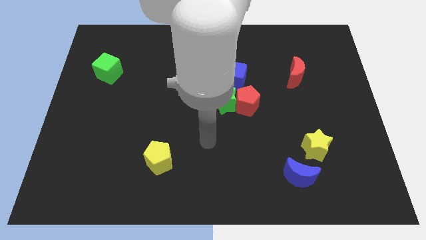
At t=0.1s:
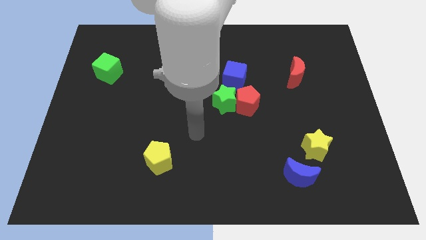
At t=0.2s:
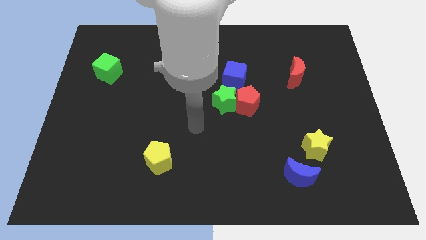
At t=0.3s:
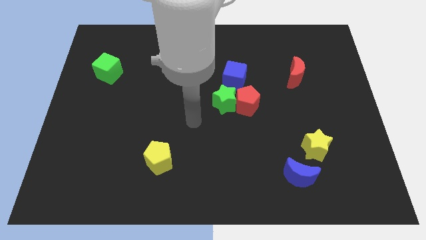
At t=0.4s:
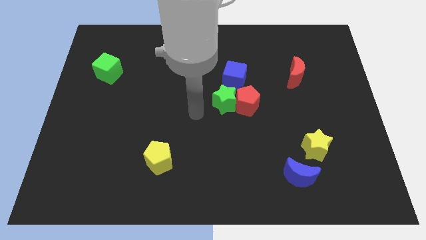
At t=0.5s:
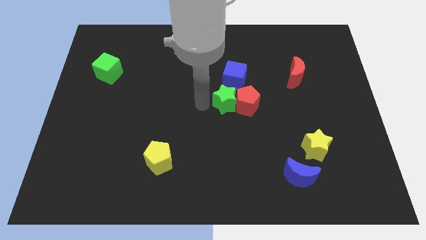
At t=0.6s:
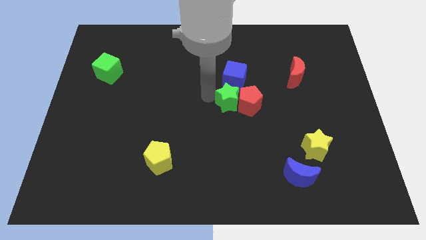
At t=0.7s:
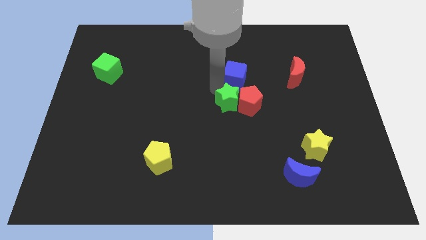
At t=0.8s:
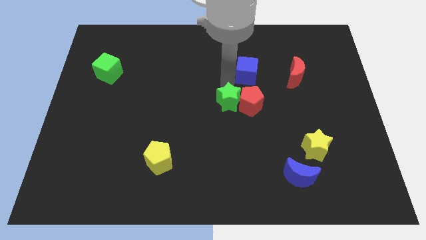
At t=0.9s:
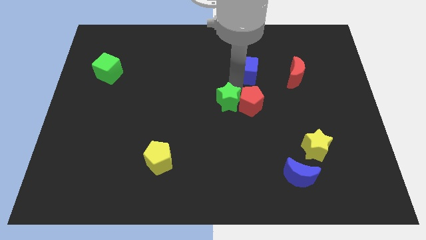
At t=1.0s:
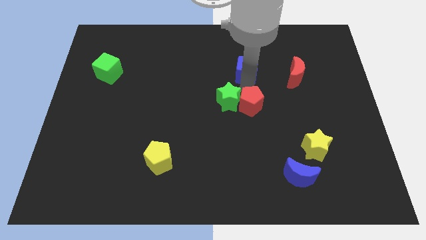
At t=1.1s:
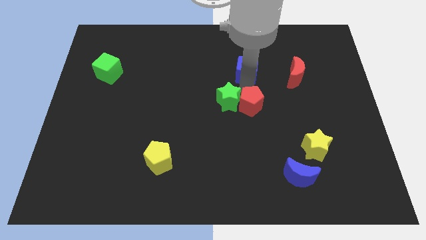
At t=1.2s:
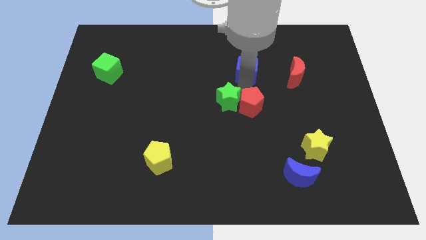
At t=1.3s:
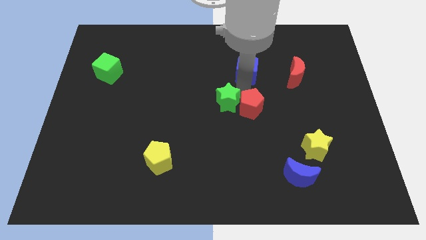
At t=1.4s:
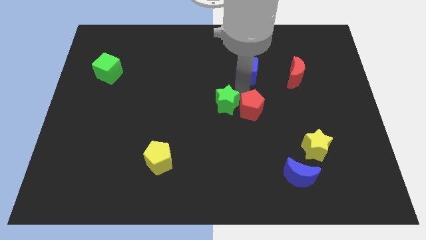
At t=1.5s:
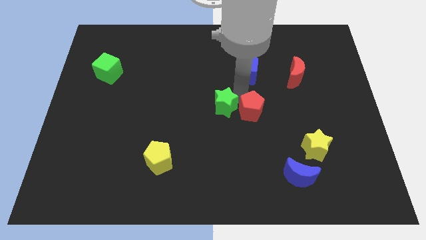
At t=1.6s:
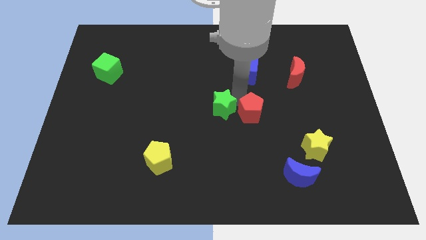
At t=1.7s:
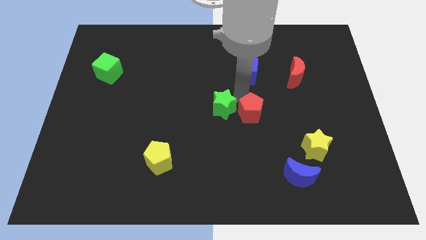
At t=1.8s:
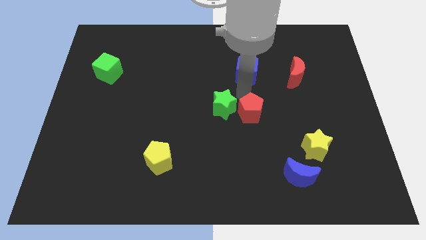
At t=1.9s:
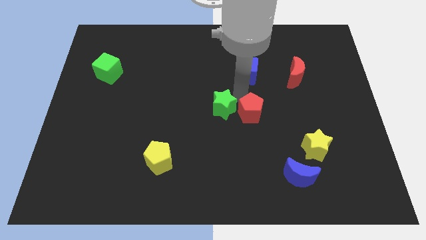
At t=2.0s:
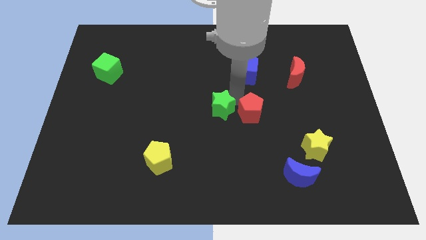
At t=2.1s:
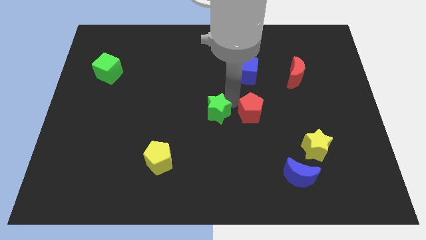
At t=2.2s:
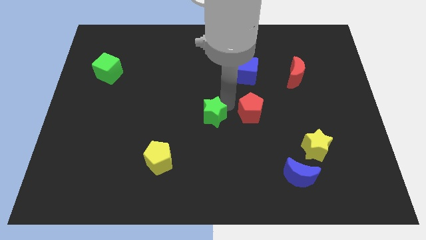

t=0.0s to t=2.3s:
separate the green star from the red pentagon and blue cube

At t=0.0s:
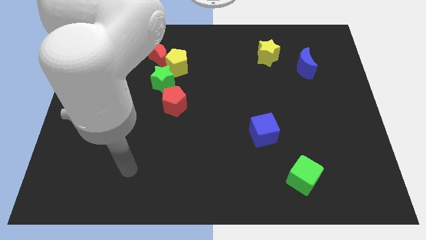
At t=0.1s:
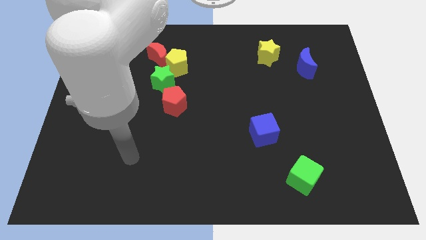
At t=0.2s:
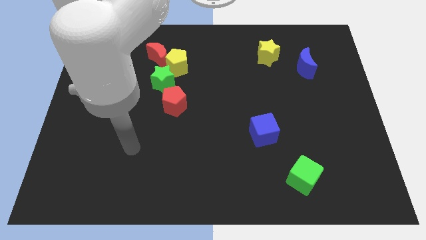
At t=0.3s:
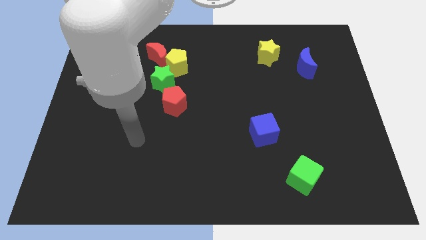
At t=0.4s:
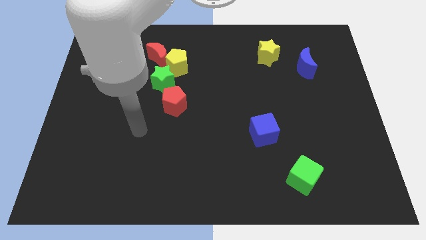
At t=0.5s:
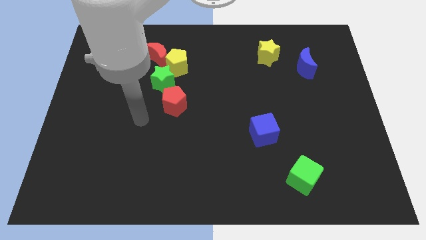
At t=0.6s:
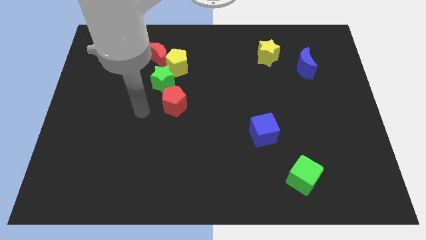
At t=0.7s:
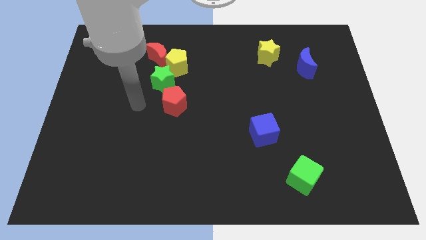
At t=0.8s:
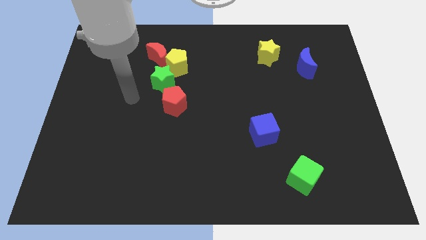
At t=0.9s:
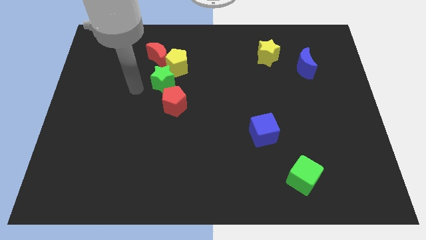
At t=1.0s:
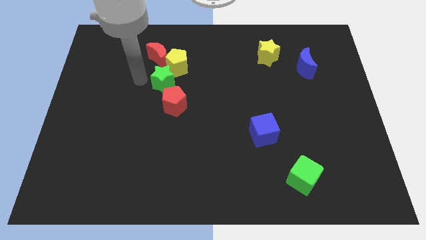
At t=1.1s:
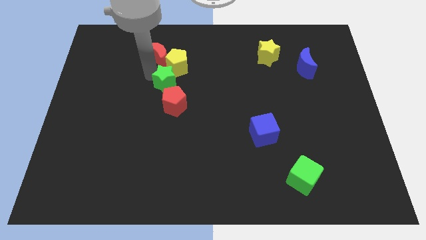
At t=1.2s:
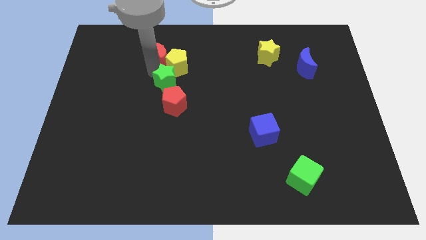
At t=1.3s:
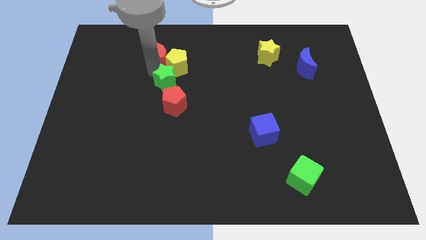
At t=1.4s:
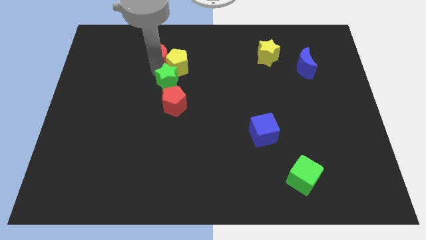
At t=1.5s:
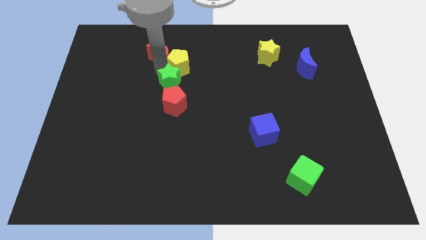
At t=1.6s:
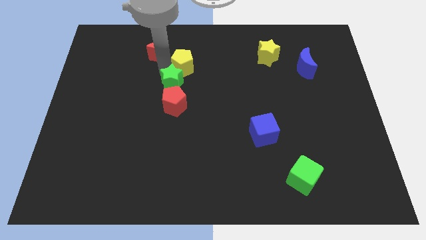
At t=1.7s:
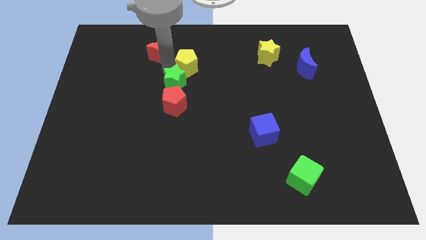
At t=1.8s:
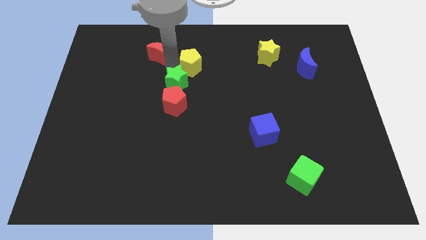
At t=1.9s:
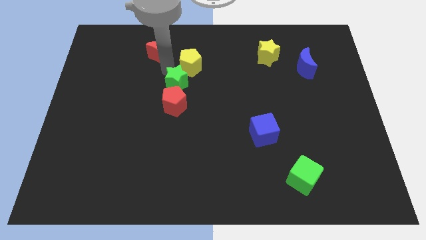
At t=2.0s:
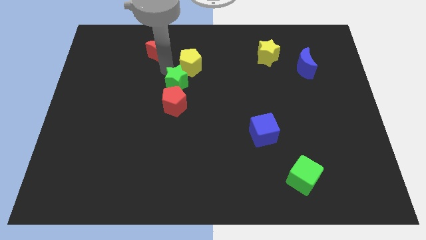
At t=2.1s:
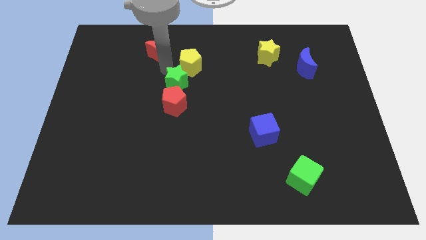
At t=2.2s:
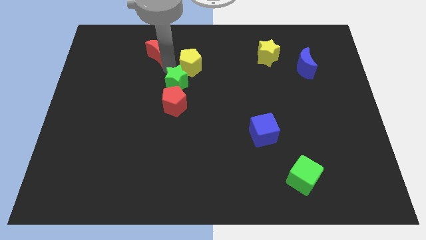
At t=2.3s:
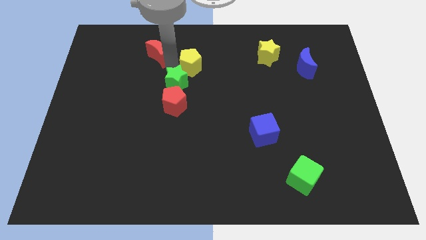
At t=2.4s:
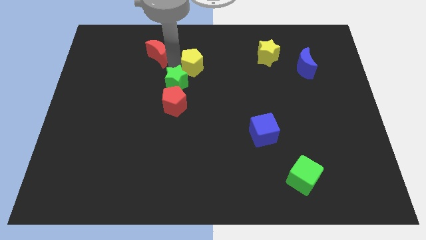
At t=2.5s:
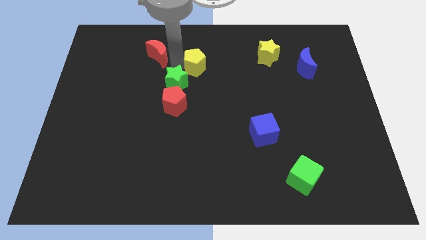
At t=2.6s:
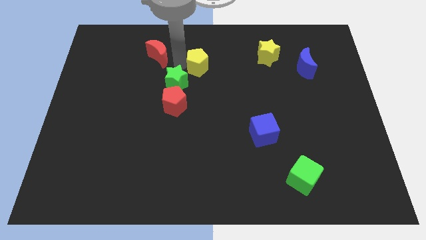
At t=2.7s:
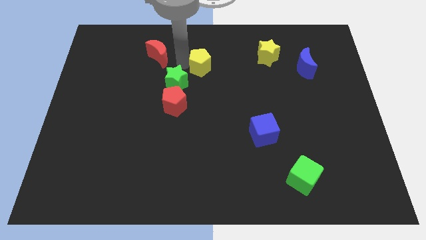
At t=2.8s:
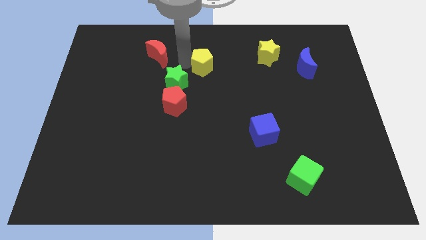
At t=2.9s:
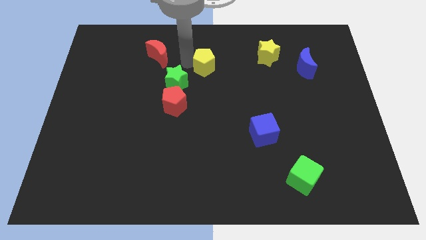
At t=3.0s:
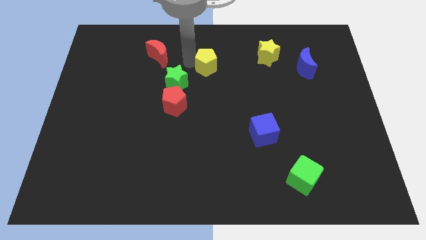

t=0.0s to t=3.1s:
pull the yellow pentagon apart from the red moon and green star

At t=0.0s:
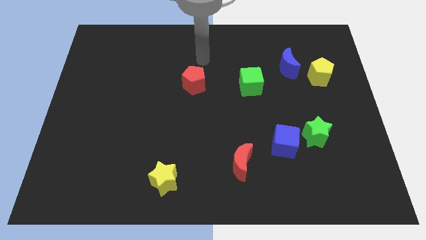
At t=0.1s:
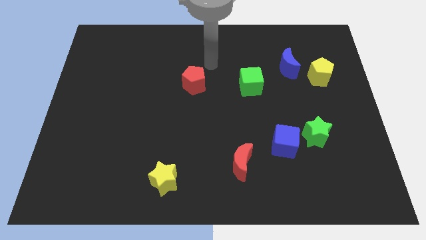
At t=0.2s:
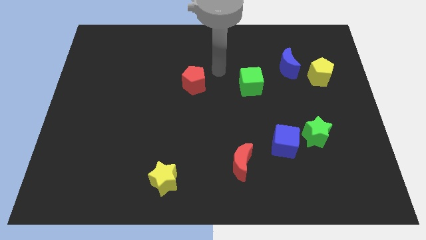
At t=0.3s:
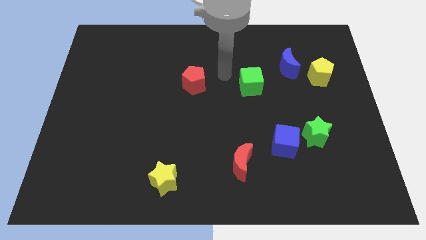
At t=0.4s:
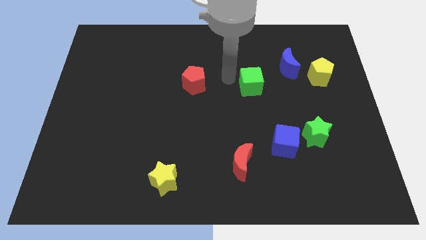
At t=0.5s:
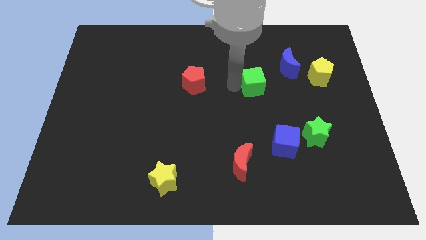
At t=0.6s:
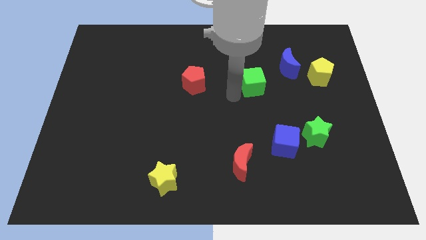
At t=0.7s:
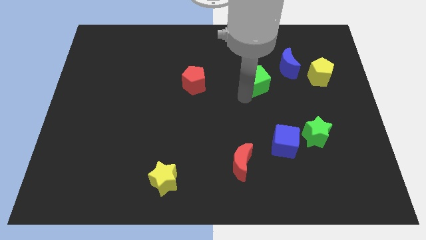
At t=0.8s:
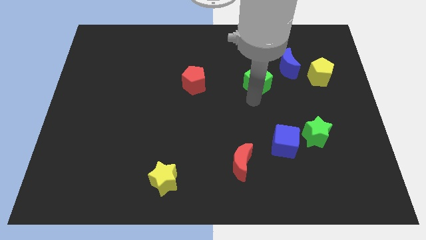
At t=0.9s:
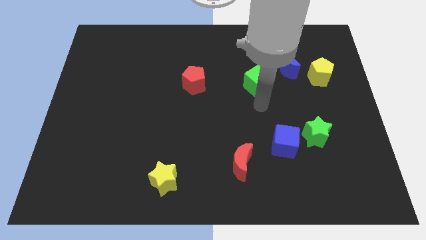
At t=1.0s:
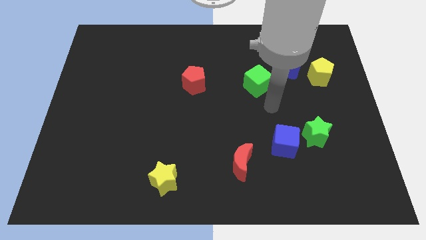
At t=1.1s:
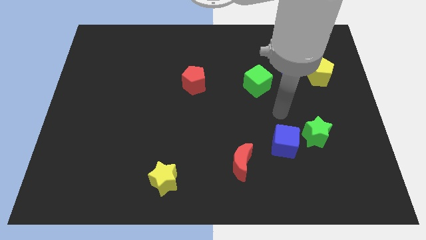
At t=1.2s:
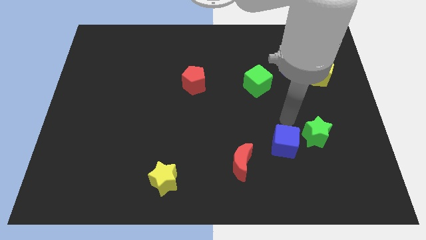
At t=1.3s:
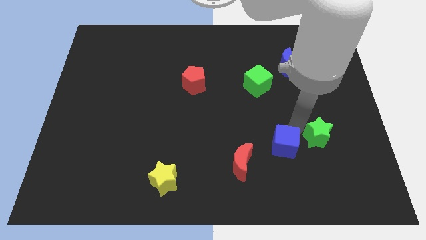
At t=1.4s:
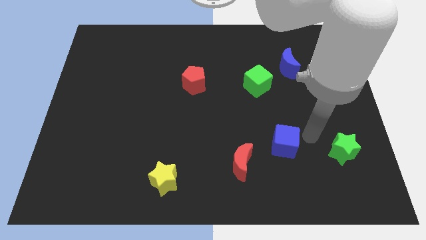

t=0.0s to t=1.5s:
move the blue cube away from the green star

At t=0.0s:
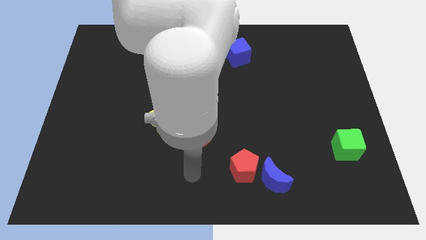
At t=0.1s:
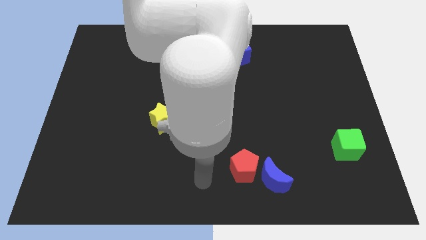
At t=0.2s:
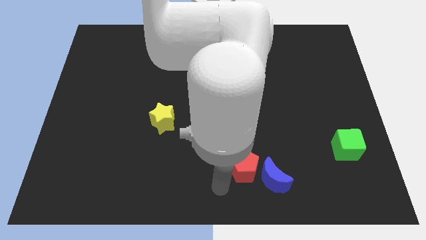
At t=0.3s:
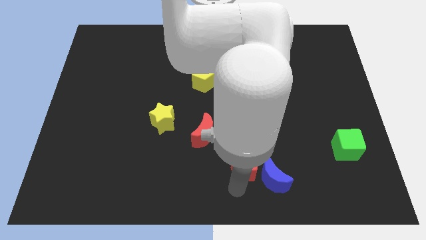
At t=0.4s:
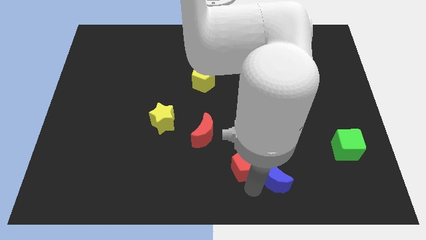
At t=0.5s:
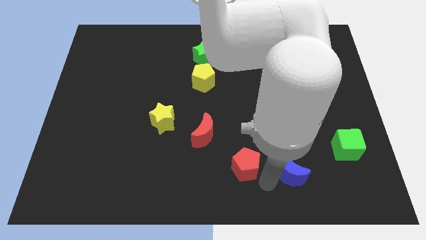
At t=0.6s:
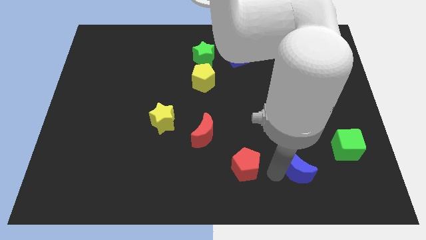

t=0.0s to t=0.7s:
separate the red pentagon from the blue moon

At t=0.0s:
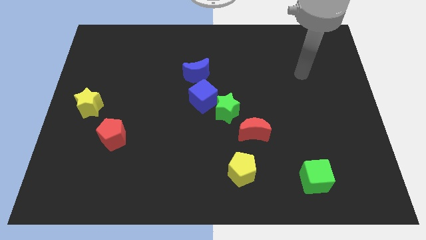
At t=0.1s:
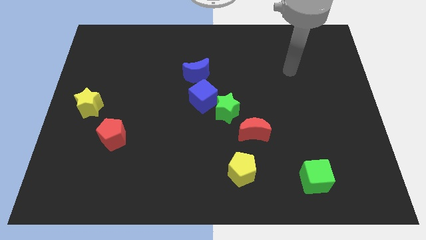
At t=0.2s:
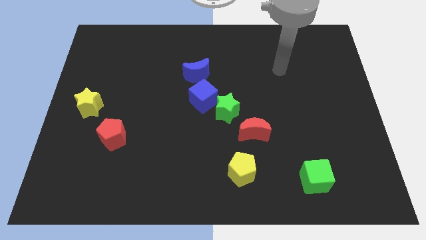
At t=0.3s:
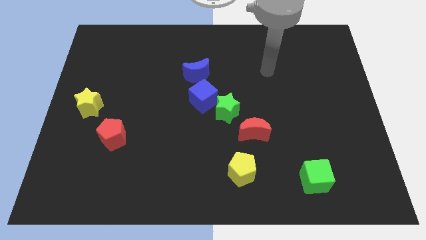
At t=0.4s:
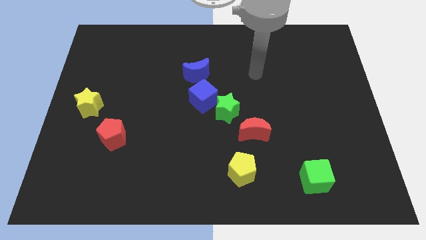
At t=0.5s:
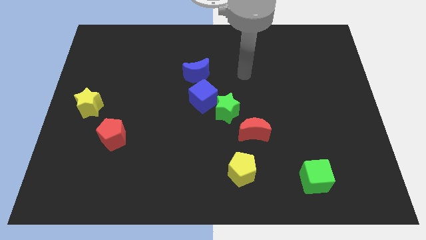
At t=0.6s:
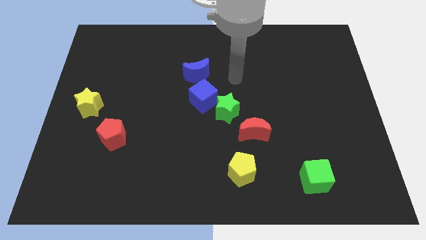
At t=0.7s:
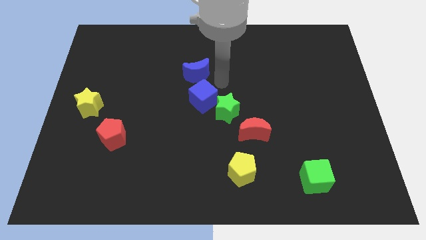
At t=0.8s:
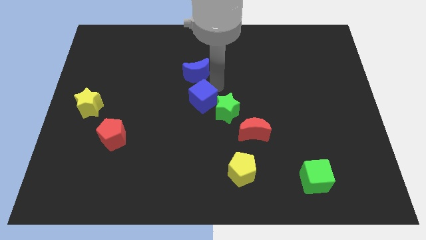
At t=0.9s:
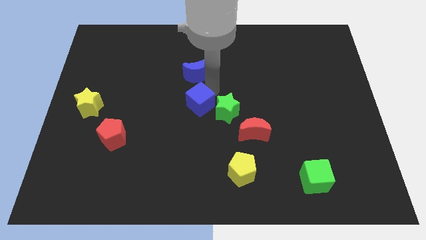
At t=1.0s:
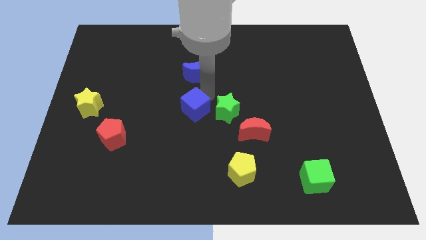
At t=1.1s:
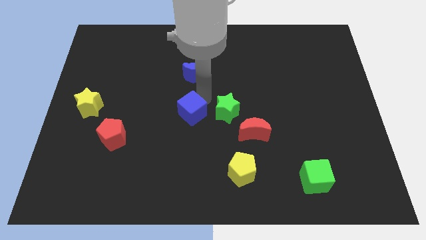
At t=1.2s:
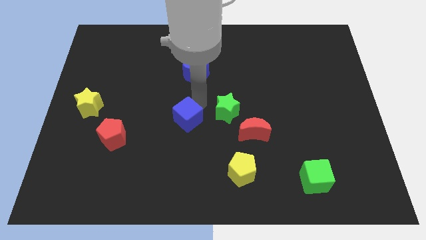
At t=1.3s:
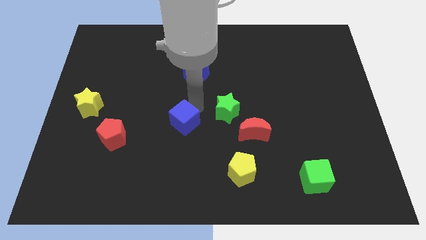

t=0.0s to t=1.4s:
separate the blue cube from the green star and blue moon

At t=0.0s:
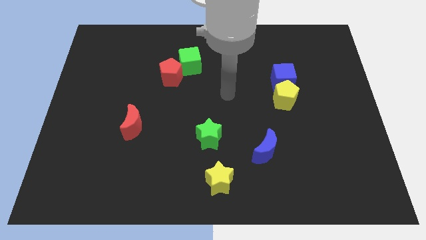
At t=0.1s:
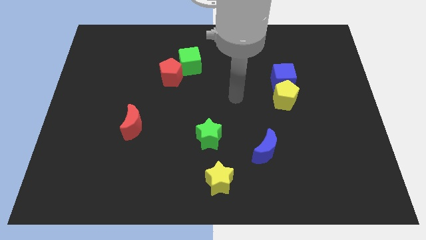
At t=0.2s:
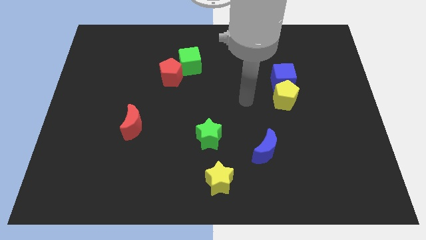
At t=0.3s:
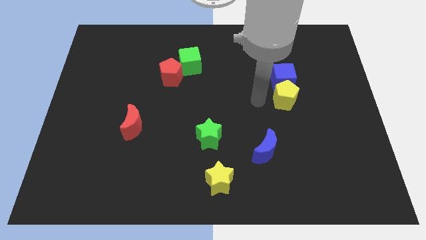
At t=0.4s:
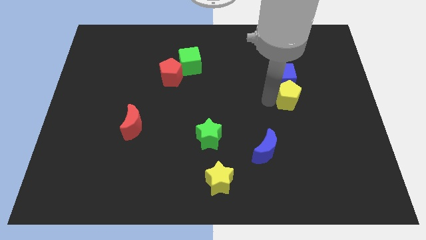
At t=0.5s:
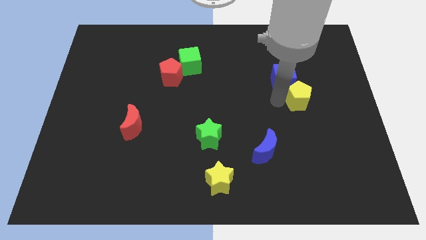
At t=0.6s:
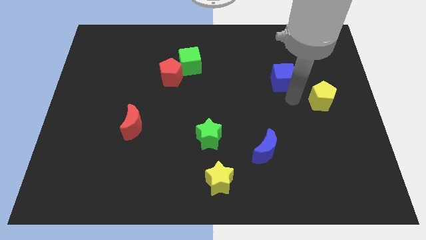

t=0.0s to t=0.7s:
separate the blue cube from the yellow pentagon
